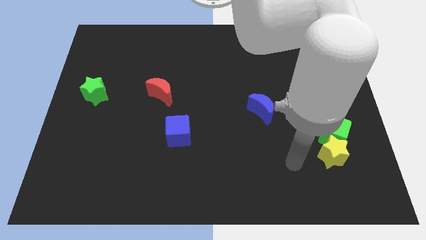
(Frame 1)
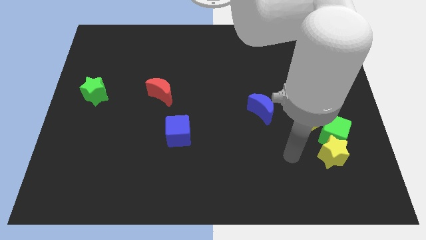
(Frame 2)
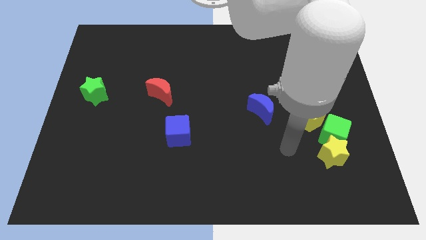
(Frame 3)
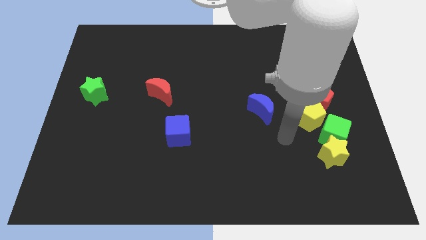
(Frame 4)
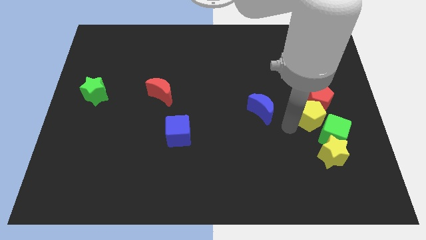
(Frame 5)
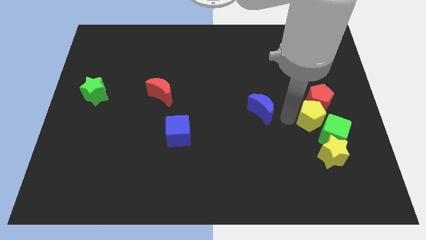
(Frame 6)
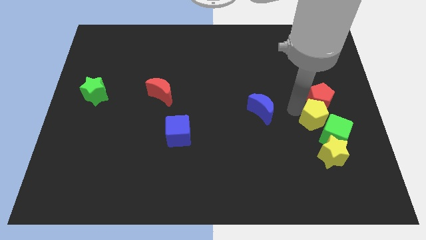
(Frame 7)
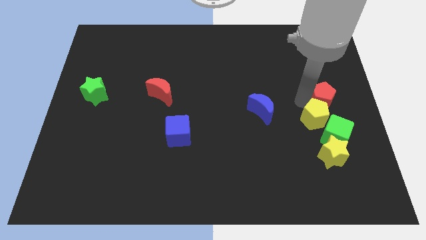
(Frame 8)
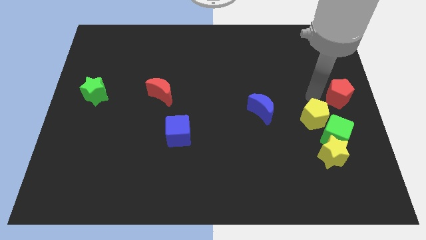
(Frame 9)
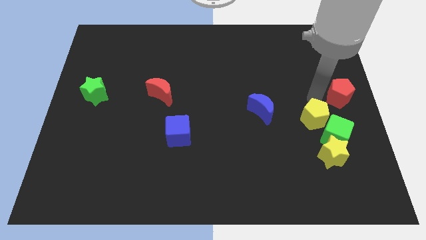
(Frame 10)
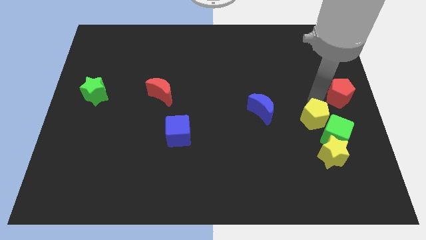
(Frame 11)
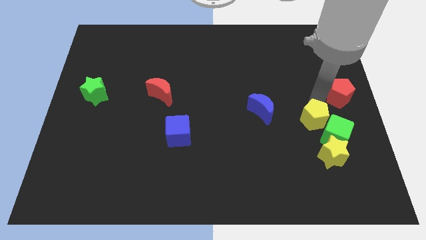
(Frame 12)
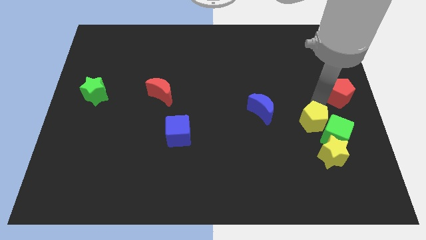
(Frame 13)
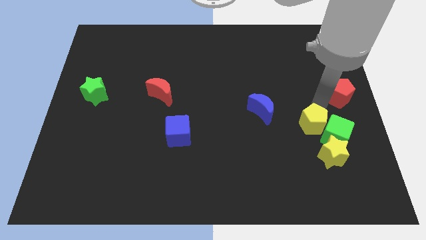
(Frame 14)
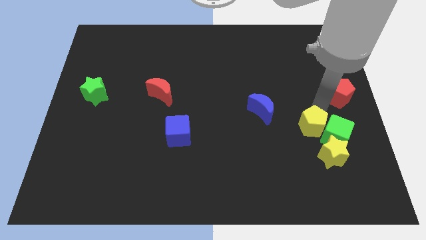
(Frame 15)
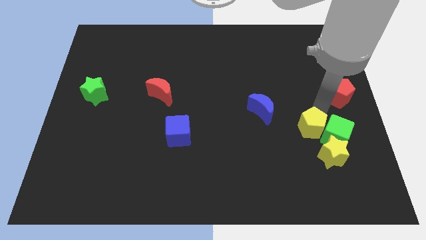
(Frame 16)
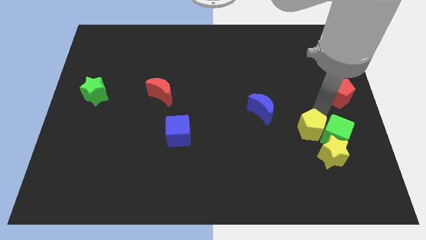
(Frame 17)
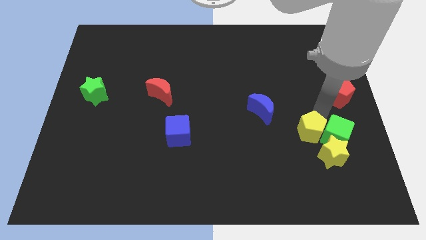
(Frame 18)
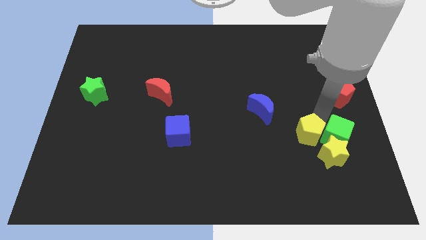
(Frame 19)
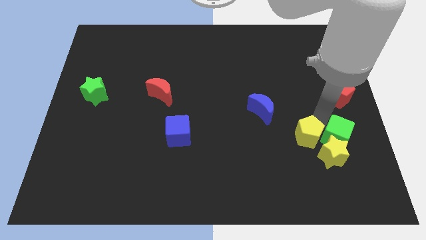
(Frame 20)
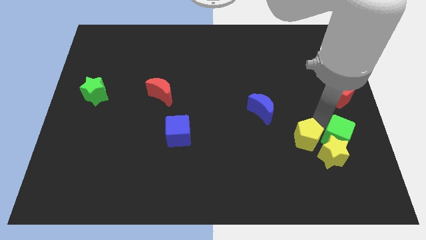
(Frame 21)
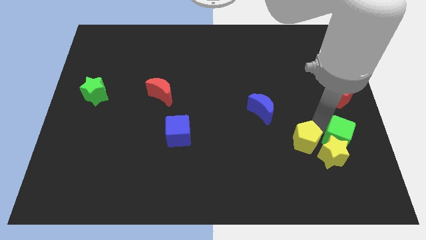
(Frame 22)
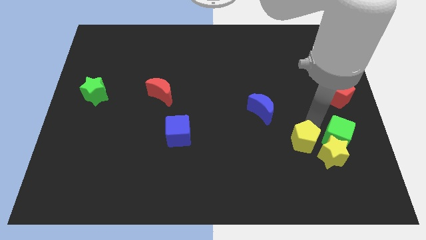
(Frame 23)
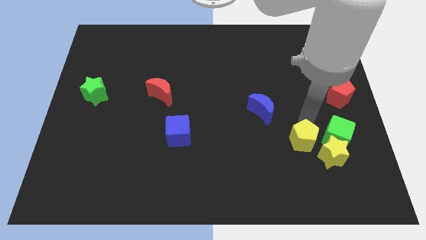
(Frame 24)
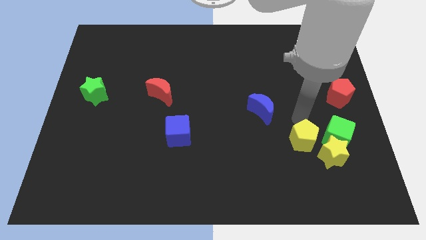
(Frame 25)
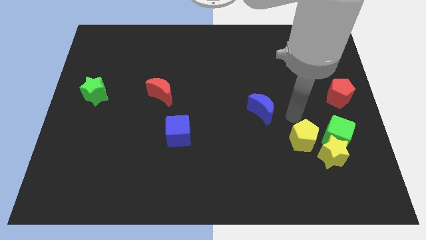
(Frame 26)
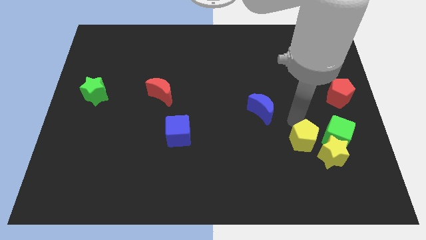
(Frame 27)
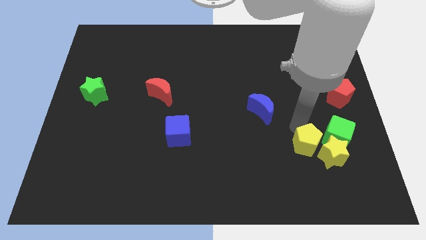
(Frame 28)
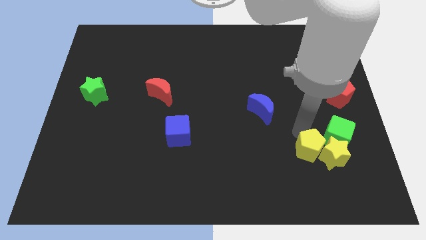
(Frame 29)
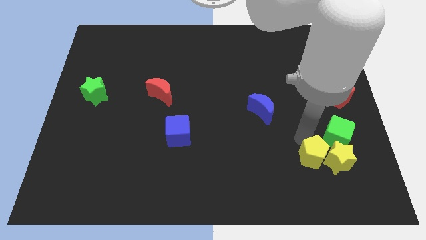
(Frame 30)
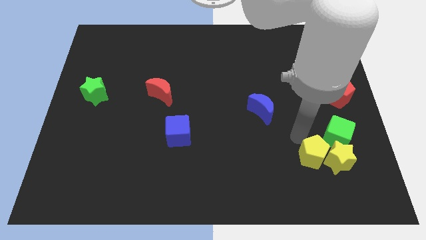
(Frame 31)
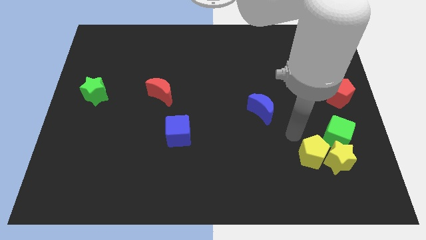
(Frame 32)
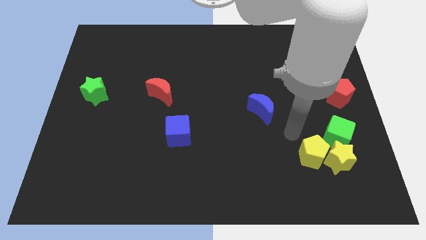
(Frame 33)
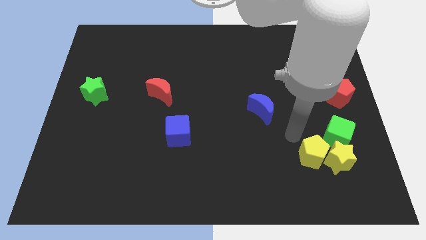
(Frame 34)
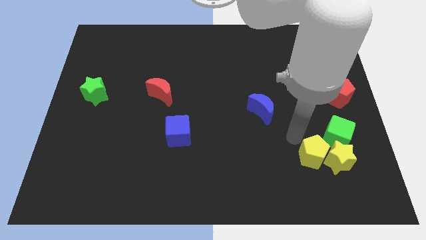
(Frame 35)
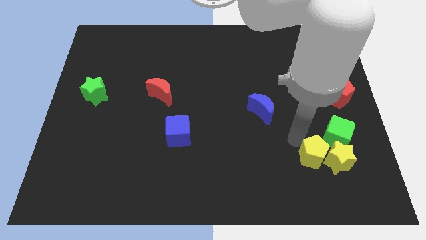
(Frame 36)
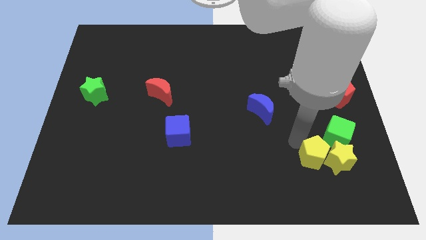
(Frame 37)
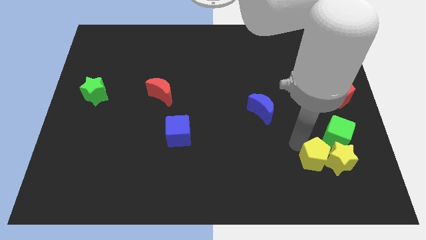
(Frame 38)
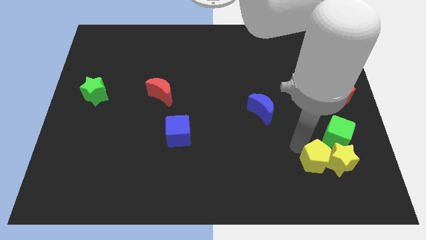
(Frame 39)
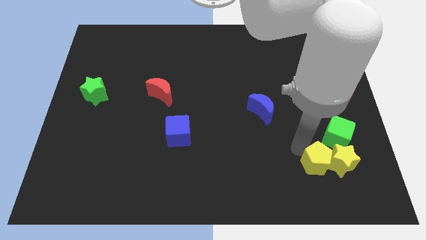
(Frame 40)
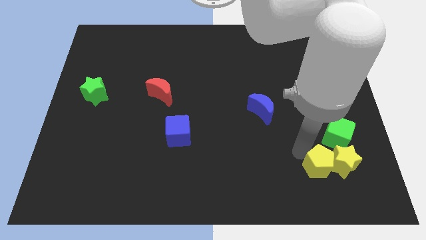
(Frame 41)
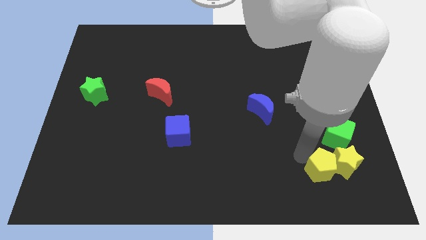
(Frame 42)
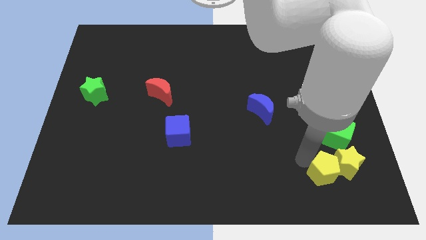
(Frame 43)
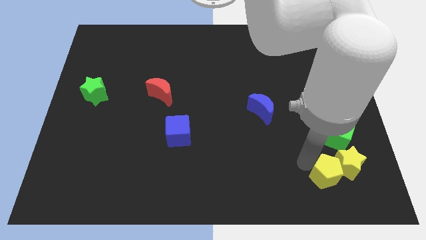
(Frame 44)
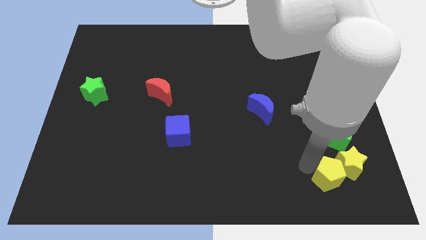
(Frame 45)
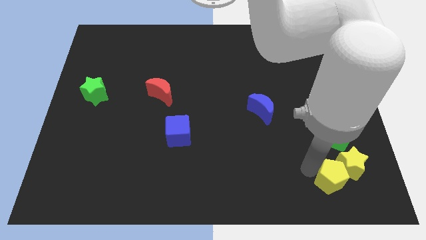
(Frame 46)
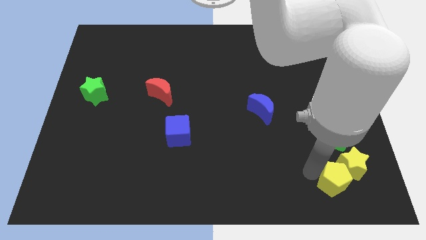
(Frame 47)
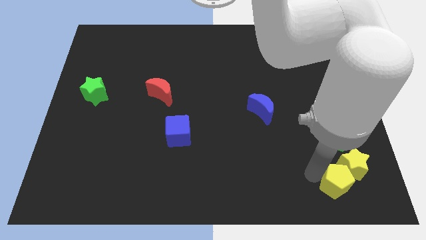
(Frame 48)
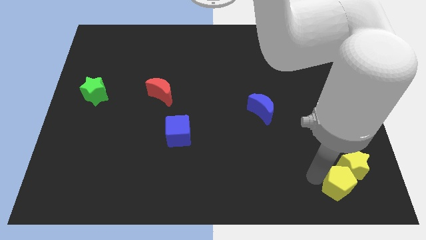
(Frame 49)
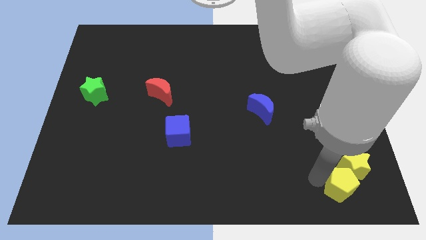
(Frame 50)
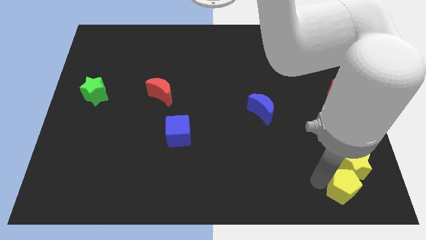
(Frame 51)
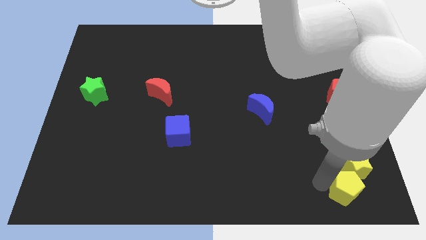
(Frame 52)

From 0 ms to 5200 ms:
push the yellow pentagon to the lower right corner

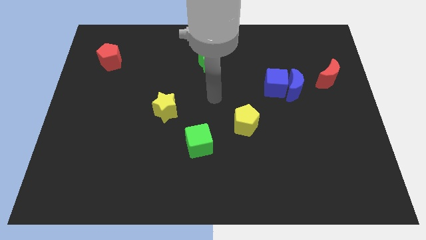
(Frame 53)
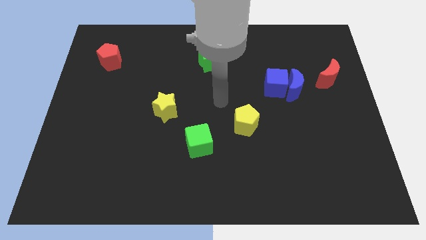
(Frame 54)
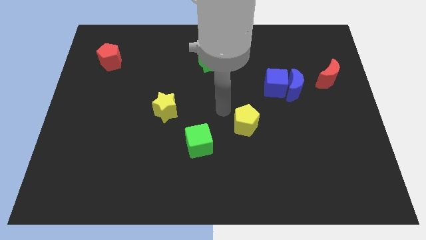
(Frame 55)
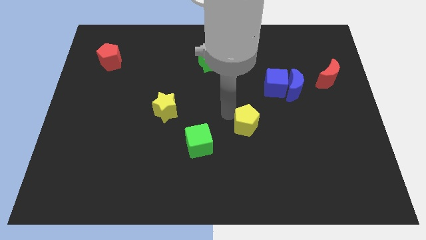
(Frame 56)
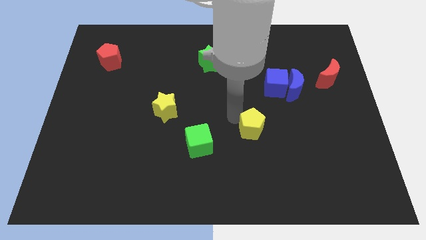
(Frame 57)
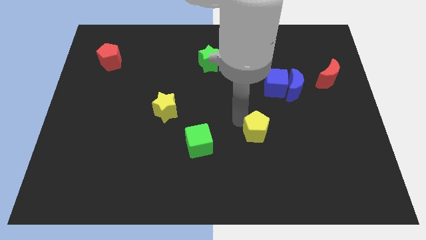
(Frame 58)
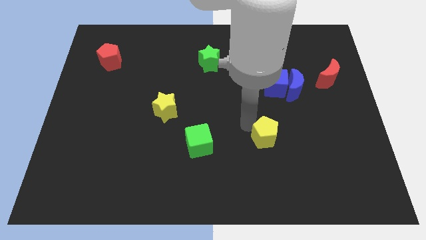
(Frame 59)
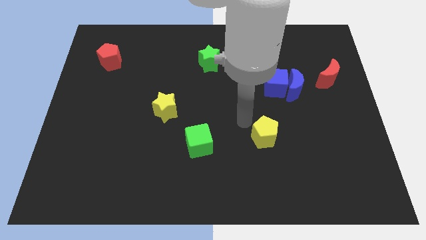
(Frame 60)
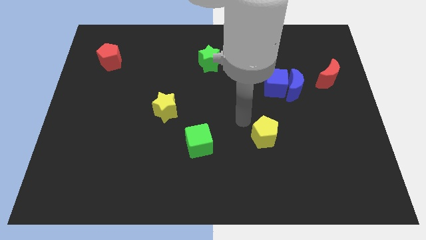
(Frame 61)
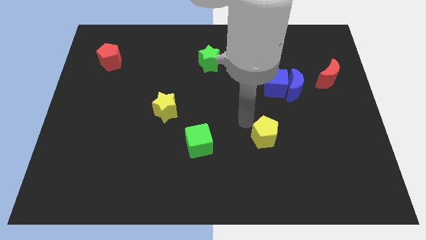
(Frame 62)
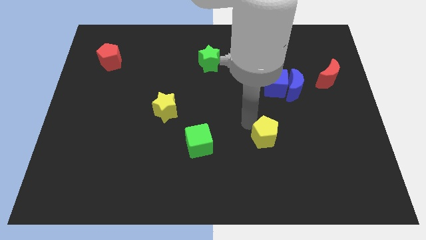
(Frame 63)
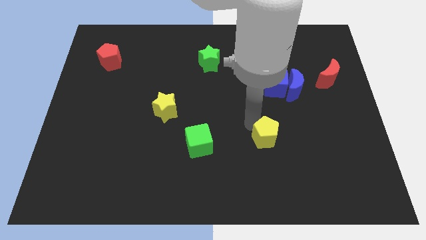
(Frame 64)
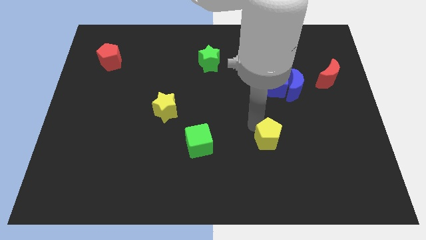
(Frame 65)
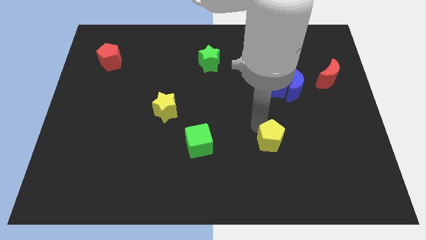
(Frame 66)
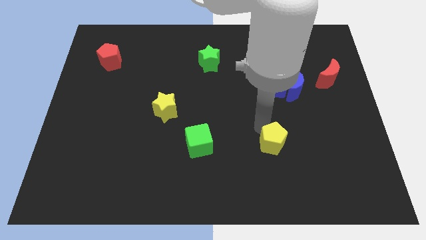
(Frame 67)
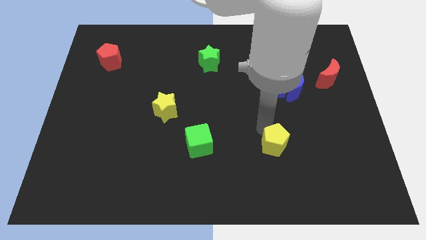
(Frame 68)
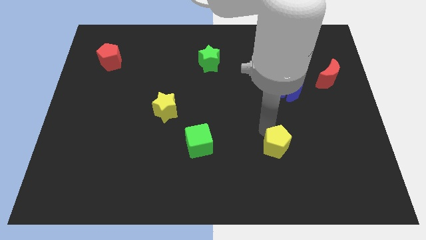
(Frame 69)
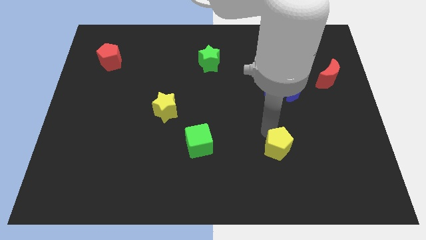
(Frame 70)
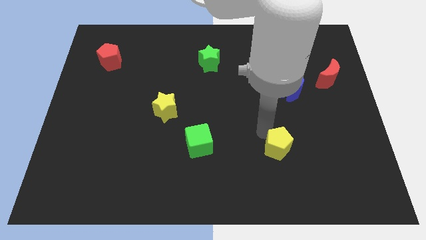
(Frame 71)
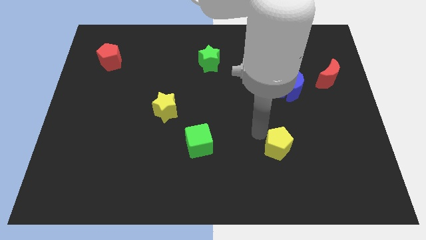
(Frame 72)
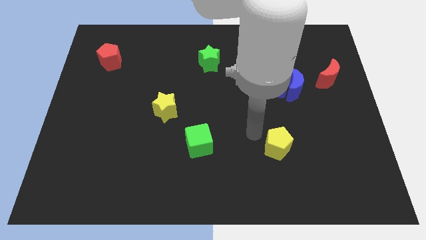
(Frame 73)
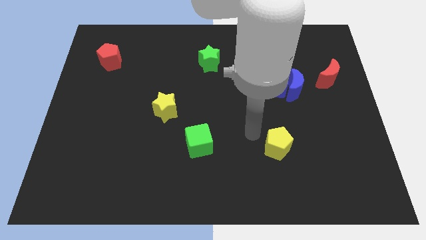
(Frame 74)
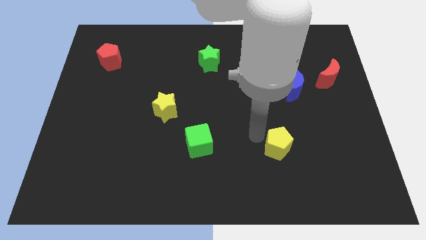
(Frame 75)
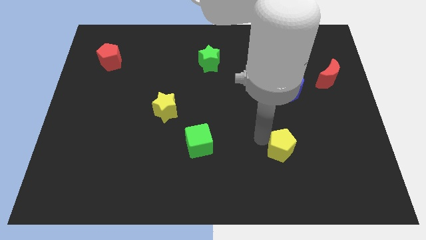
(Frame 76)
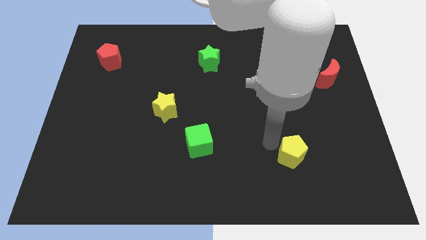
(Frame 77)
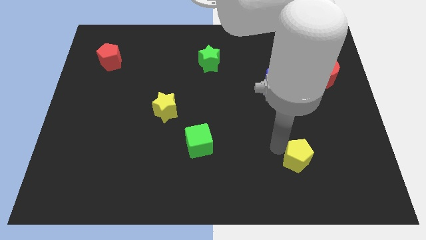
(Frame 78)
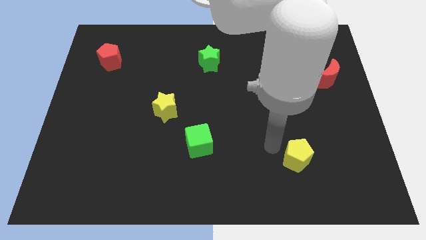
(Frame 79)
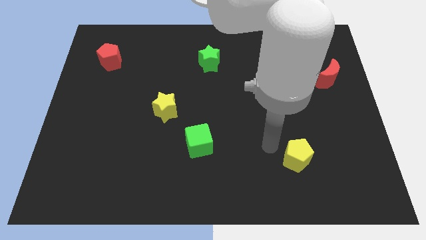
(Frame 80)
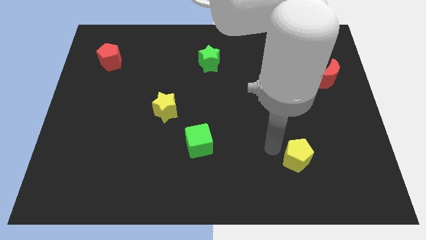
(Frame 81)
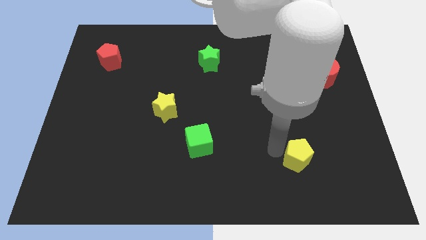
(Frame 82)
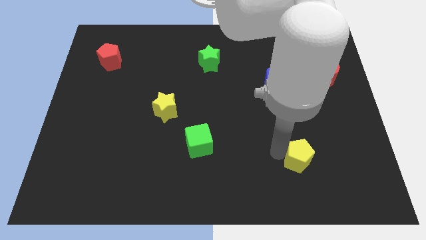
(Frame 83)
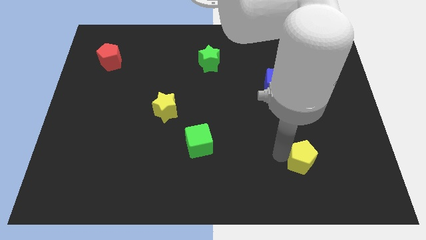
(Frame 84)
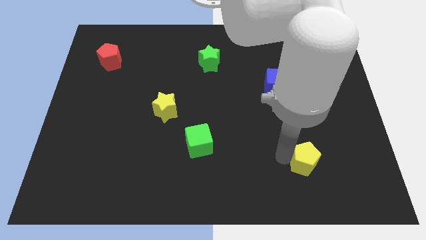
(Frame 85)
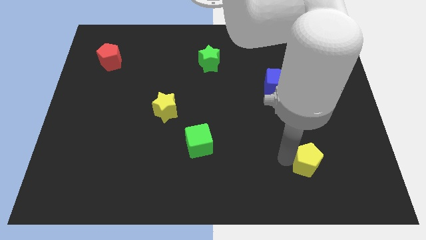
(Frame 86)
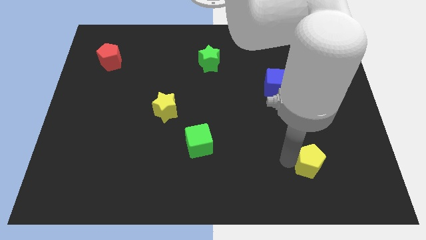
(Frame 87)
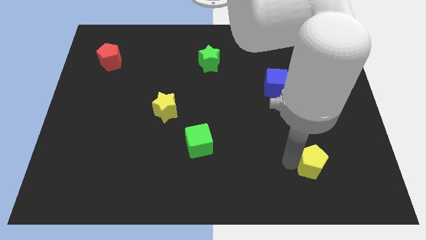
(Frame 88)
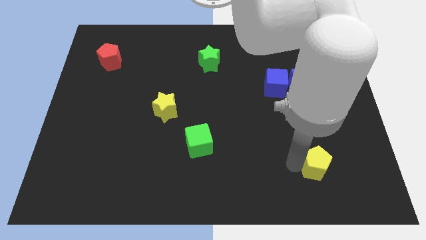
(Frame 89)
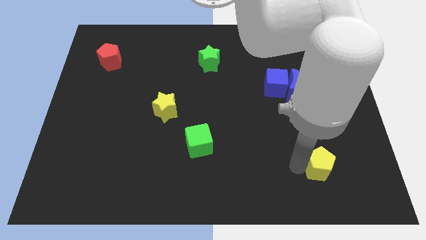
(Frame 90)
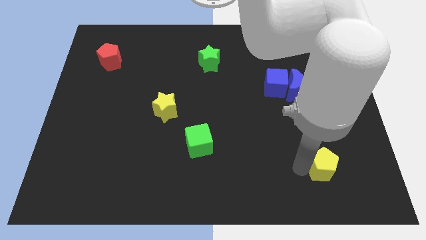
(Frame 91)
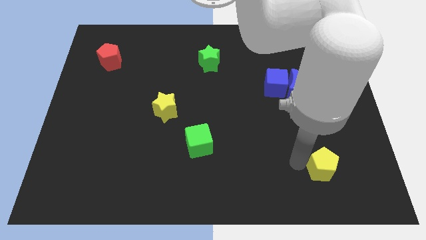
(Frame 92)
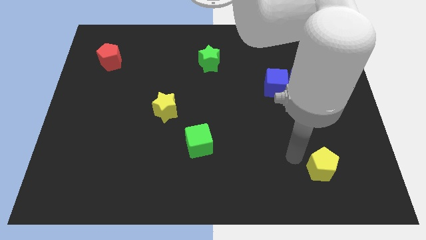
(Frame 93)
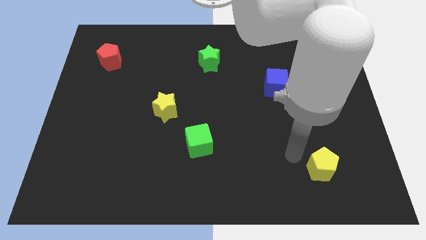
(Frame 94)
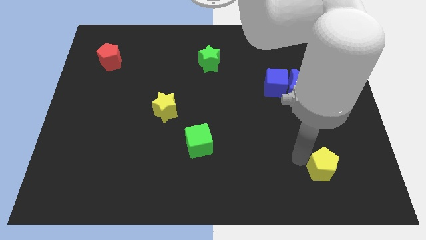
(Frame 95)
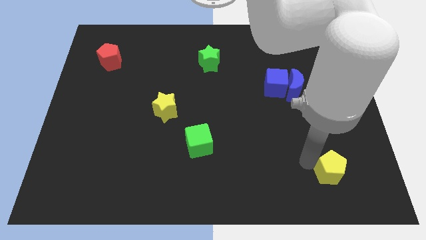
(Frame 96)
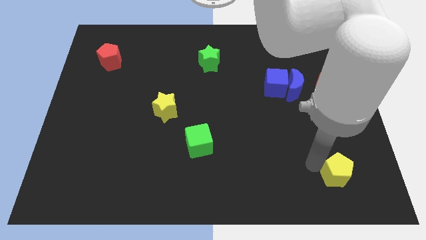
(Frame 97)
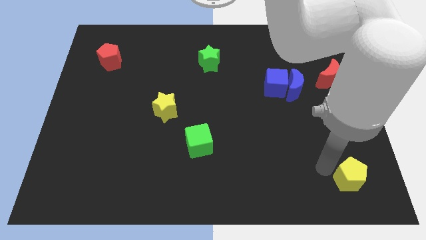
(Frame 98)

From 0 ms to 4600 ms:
slide the yellow pentagon to the bottom right of the board
